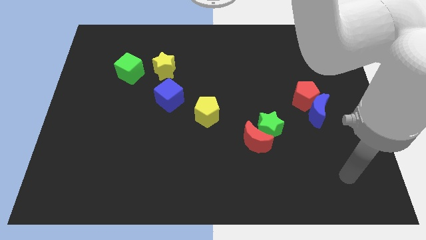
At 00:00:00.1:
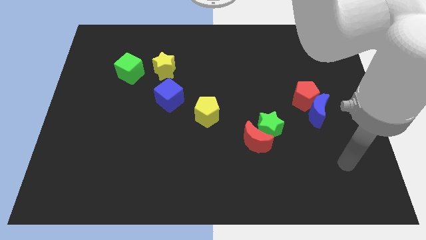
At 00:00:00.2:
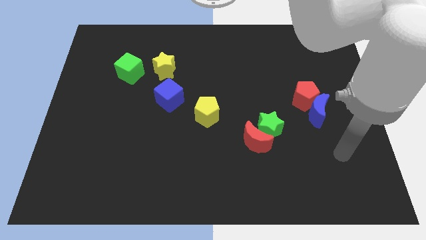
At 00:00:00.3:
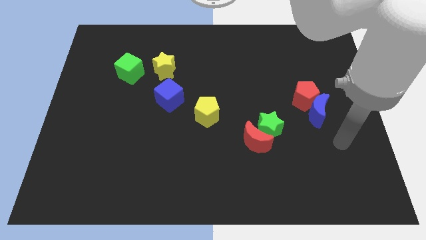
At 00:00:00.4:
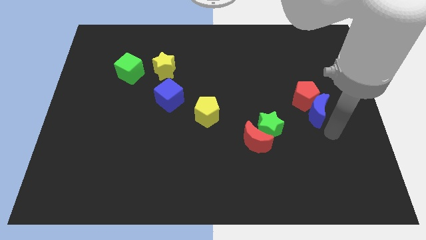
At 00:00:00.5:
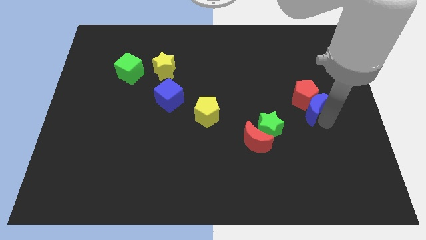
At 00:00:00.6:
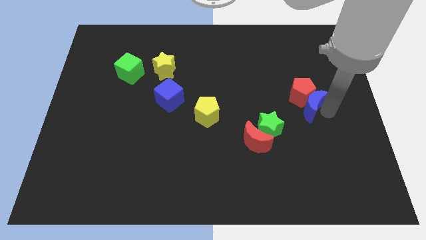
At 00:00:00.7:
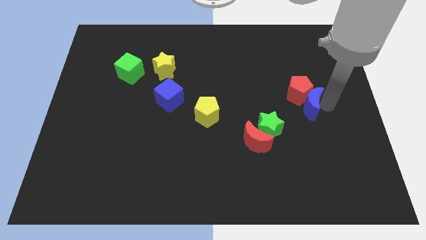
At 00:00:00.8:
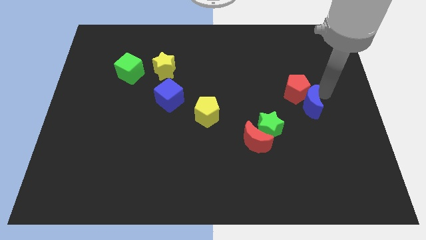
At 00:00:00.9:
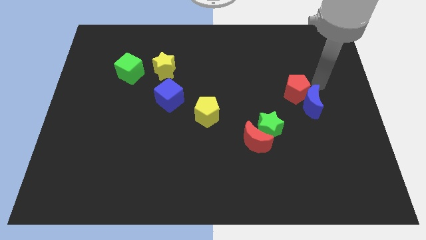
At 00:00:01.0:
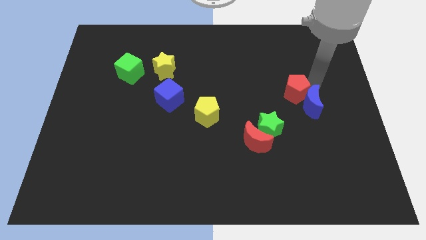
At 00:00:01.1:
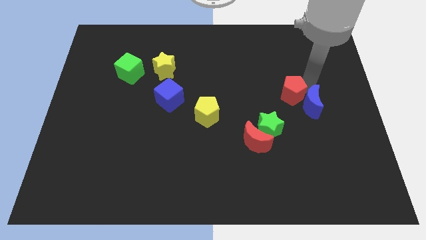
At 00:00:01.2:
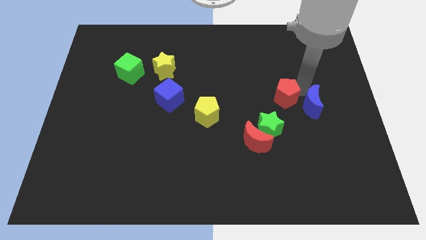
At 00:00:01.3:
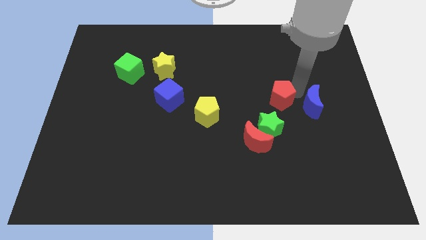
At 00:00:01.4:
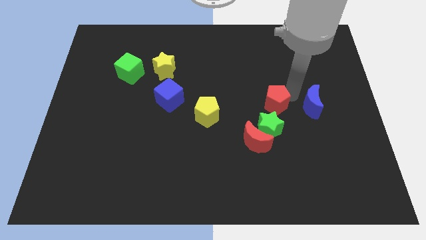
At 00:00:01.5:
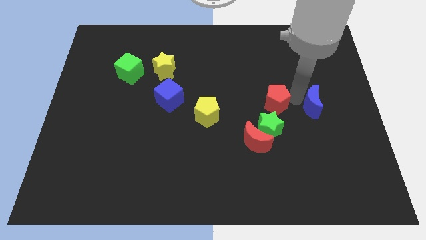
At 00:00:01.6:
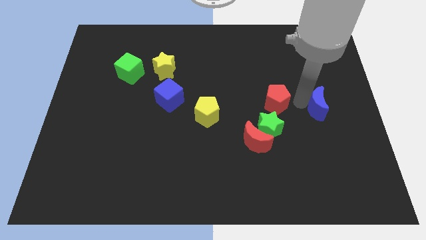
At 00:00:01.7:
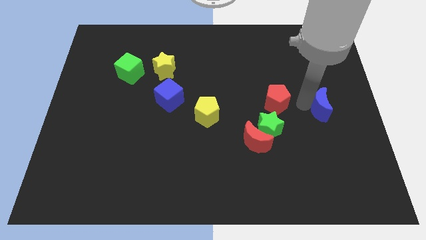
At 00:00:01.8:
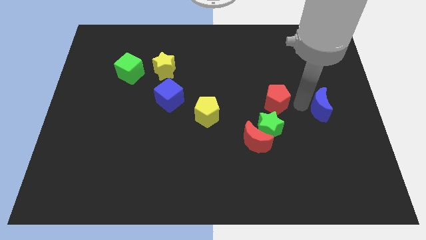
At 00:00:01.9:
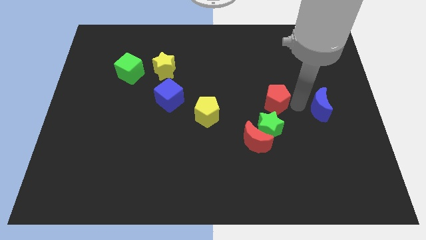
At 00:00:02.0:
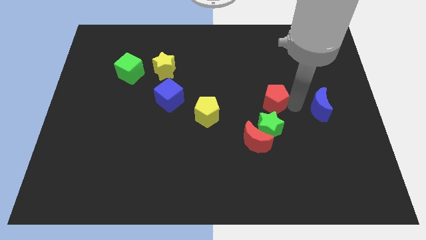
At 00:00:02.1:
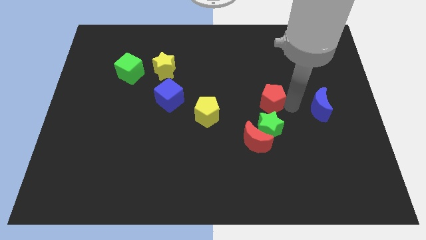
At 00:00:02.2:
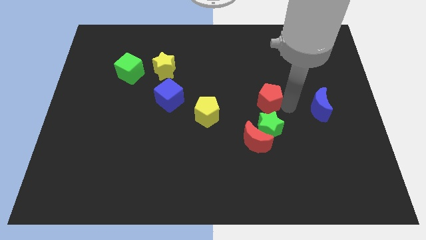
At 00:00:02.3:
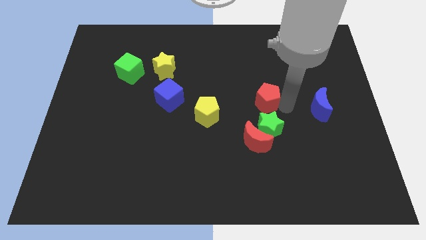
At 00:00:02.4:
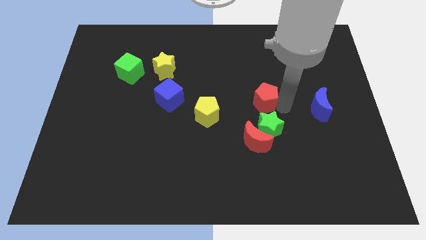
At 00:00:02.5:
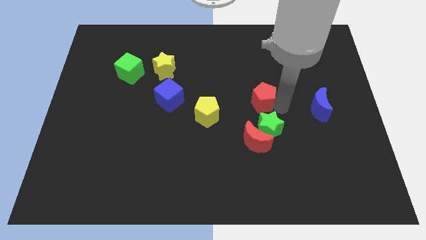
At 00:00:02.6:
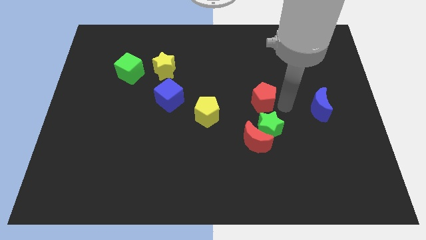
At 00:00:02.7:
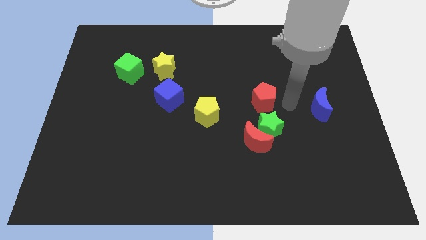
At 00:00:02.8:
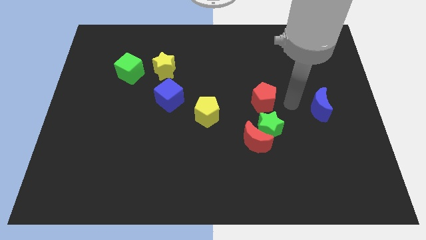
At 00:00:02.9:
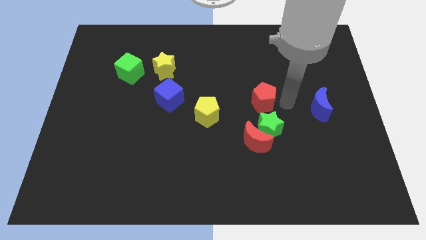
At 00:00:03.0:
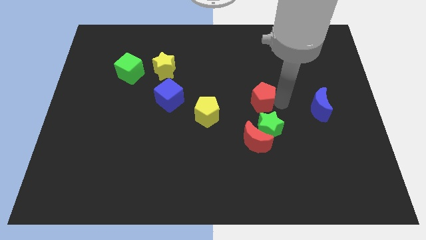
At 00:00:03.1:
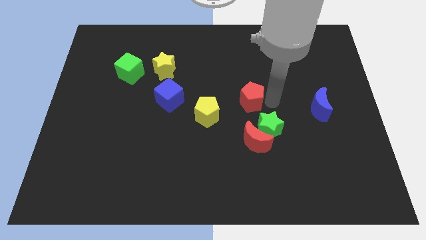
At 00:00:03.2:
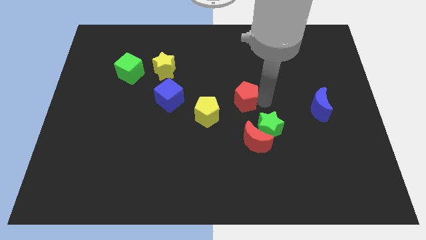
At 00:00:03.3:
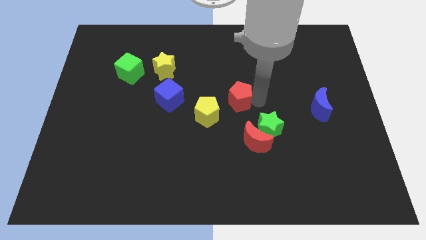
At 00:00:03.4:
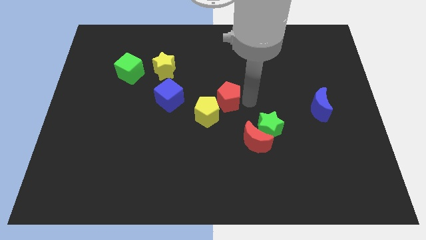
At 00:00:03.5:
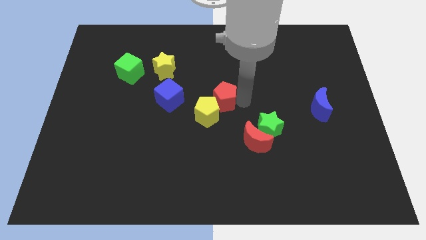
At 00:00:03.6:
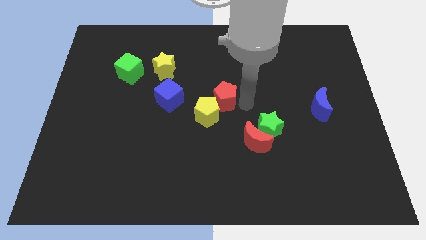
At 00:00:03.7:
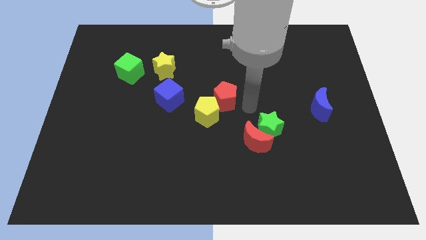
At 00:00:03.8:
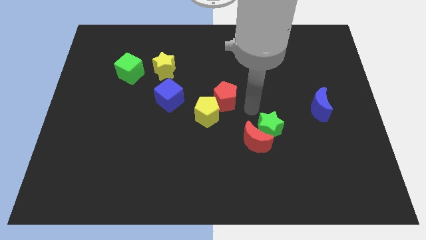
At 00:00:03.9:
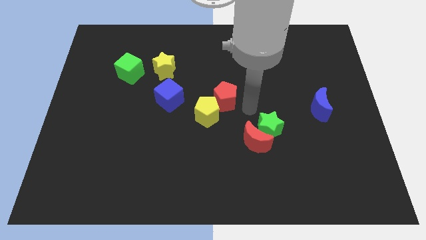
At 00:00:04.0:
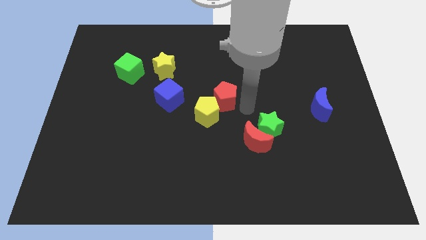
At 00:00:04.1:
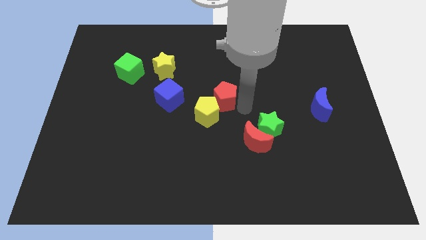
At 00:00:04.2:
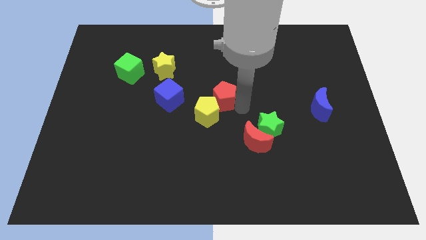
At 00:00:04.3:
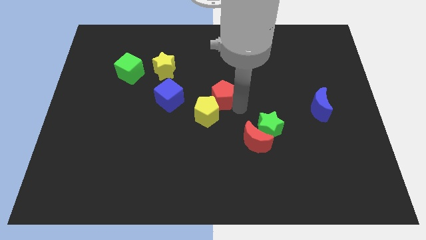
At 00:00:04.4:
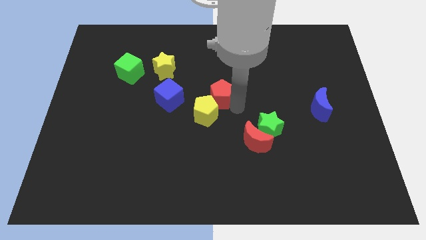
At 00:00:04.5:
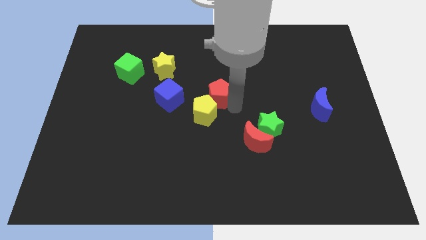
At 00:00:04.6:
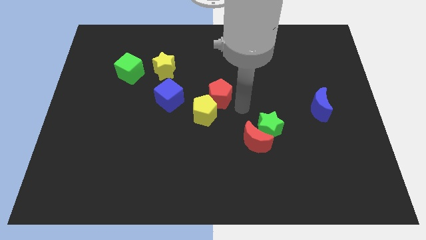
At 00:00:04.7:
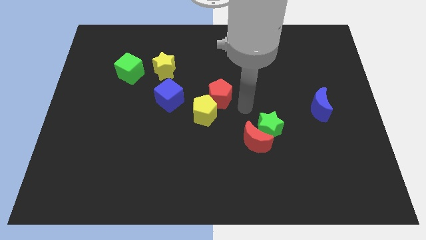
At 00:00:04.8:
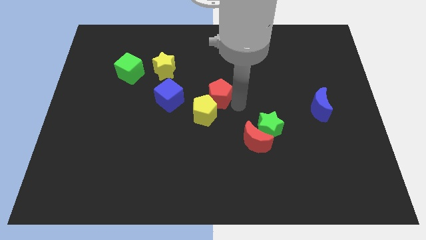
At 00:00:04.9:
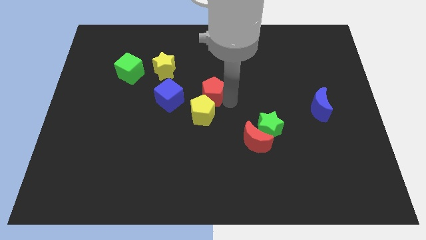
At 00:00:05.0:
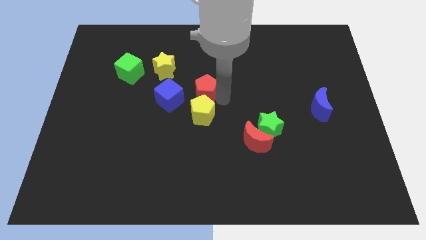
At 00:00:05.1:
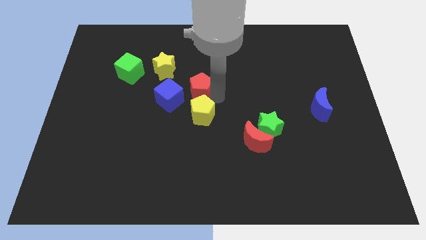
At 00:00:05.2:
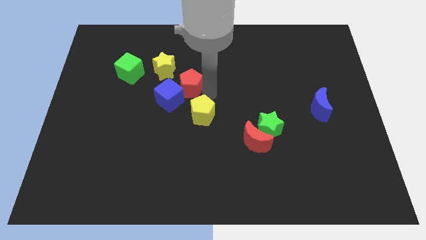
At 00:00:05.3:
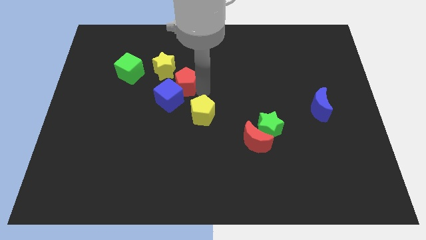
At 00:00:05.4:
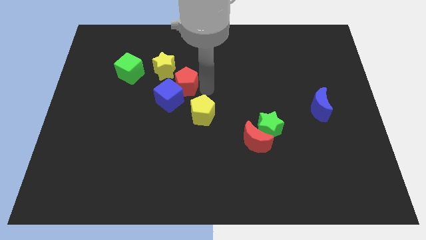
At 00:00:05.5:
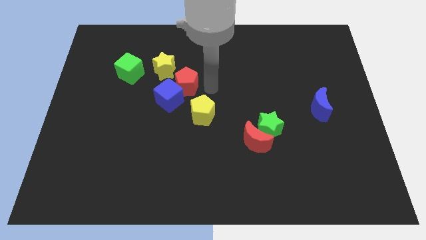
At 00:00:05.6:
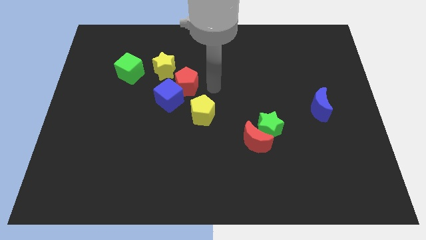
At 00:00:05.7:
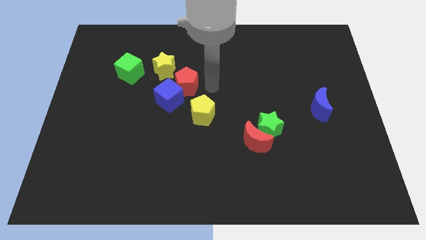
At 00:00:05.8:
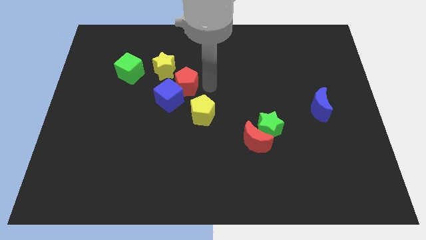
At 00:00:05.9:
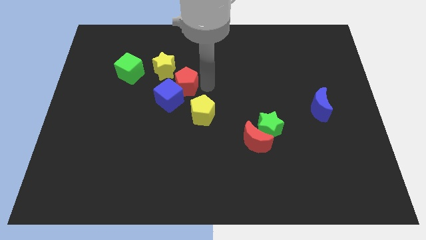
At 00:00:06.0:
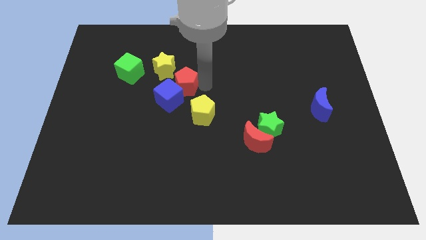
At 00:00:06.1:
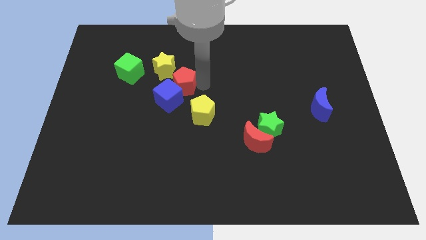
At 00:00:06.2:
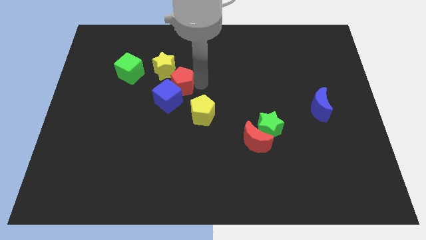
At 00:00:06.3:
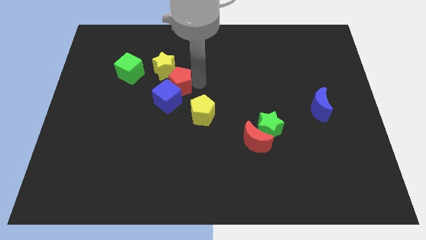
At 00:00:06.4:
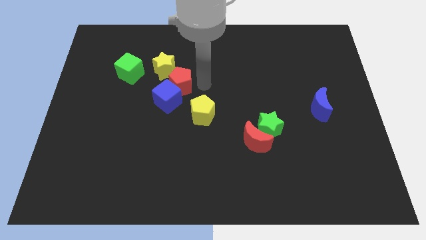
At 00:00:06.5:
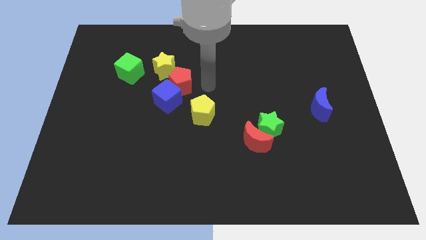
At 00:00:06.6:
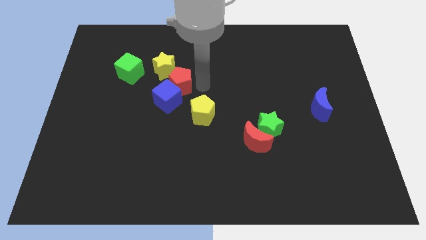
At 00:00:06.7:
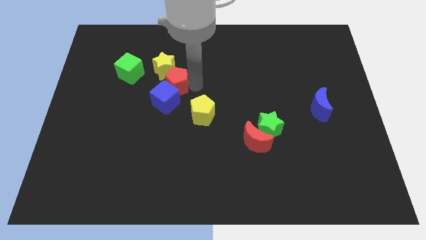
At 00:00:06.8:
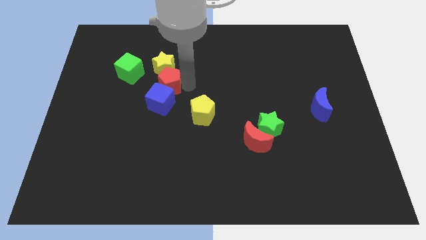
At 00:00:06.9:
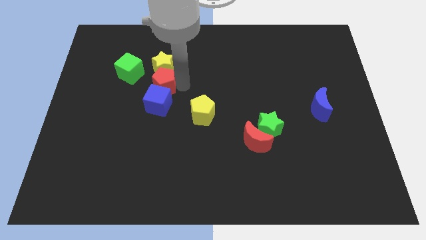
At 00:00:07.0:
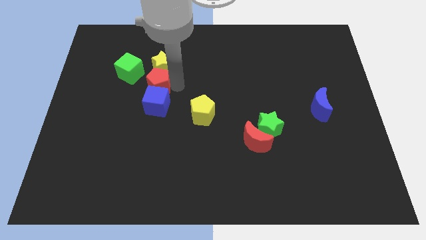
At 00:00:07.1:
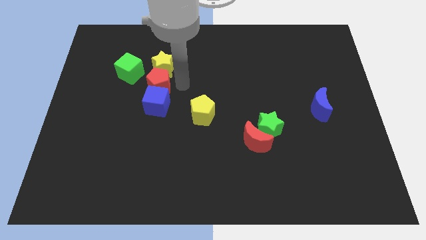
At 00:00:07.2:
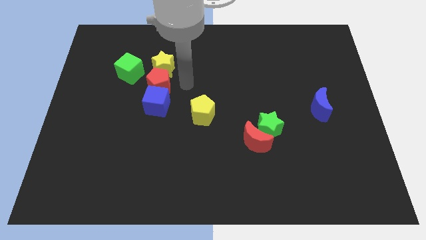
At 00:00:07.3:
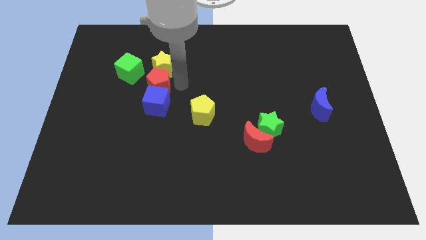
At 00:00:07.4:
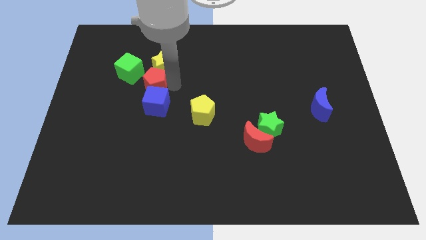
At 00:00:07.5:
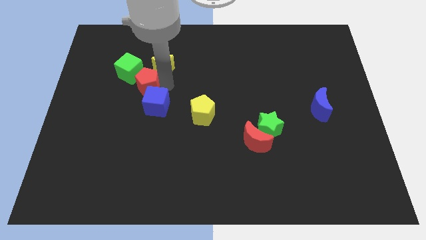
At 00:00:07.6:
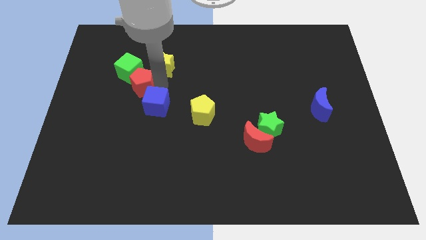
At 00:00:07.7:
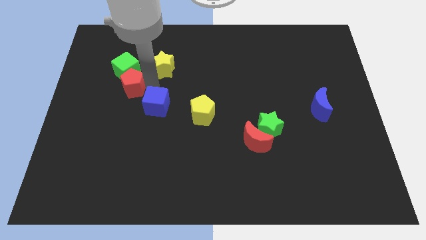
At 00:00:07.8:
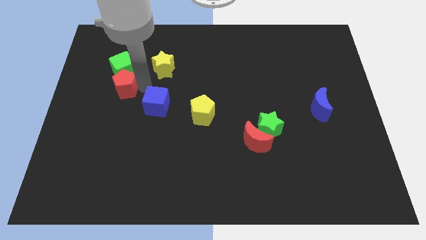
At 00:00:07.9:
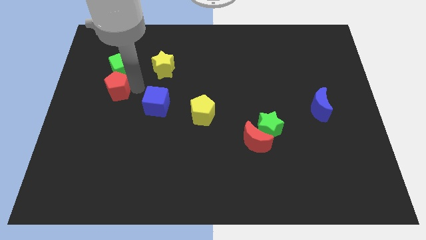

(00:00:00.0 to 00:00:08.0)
push the red pentagon diagonally down and to the left of the green cube
